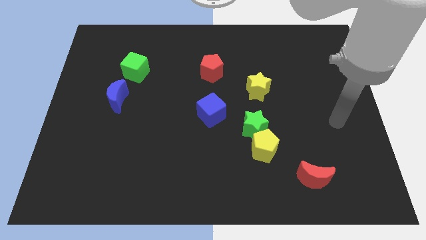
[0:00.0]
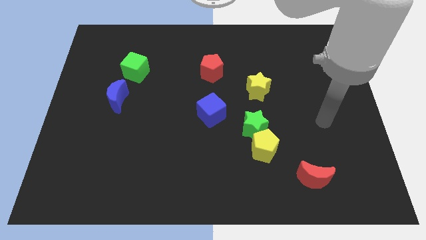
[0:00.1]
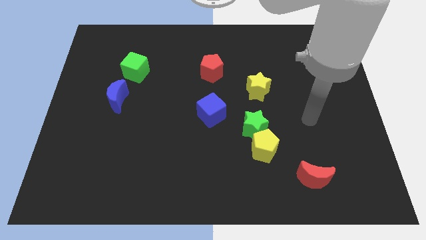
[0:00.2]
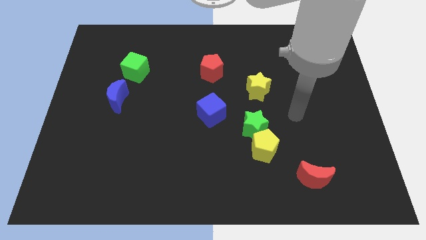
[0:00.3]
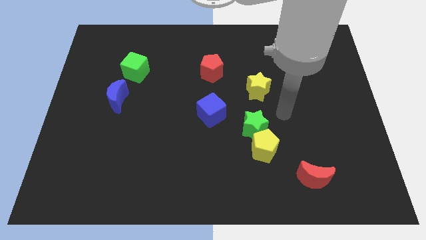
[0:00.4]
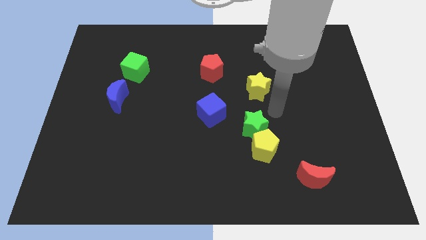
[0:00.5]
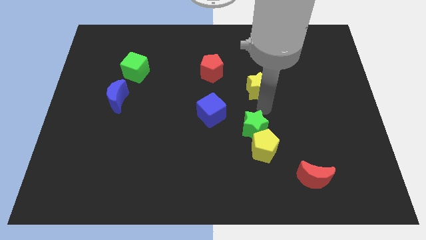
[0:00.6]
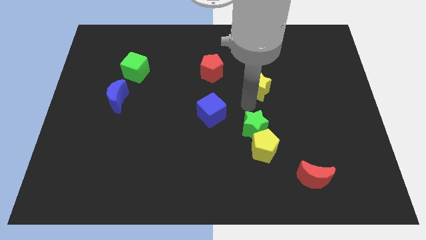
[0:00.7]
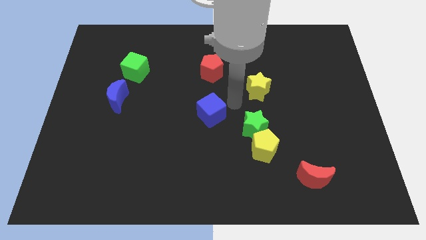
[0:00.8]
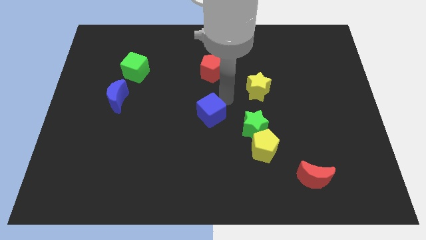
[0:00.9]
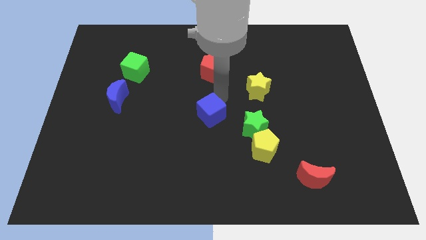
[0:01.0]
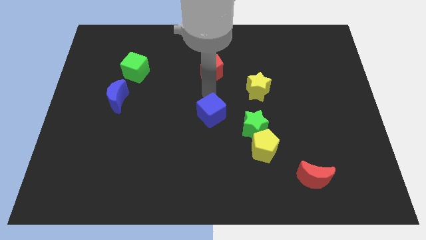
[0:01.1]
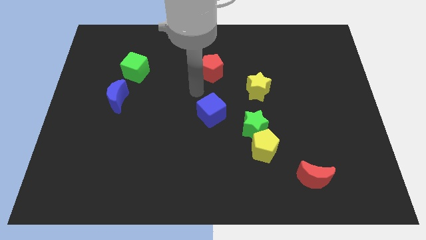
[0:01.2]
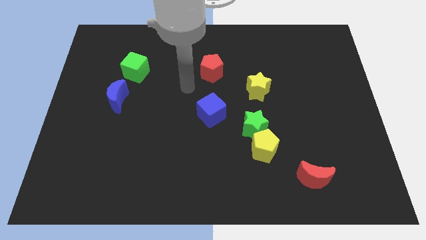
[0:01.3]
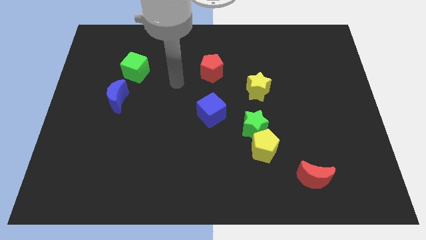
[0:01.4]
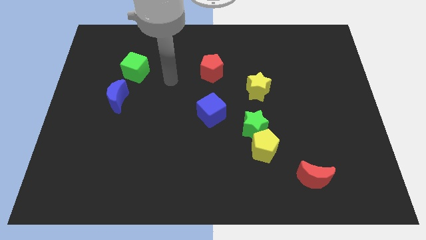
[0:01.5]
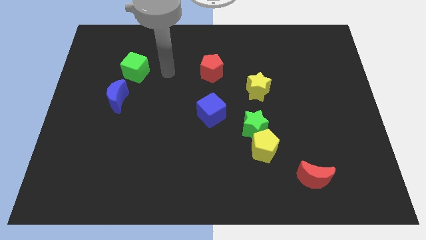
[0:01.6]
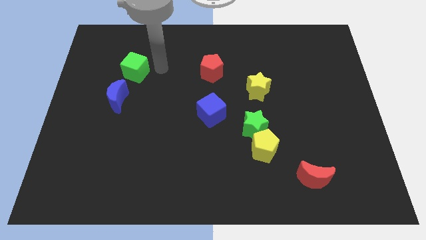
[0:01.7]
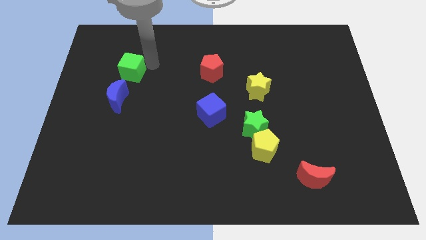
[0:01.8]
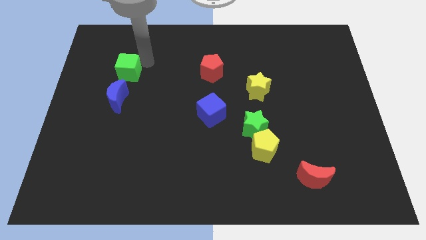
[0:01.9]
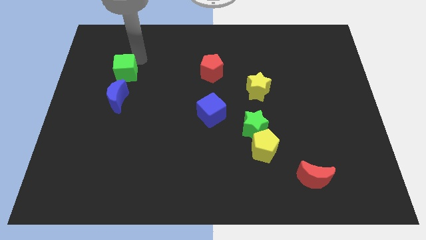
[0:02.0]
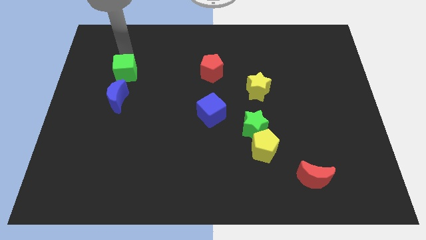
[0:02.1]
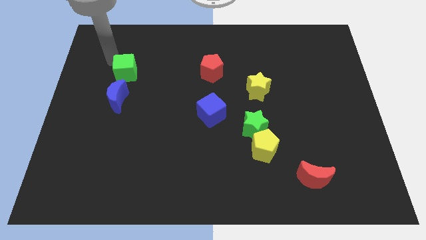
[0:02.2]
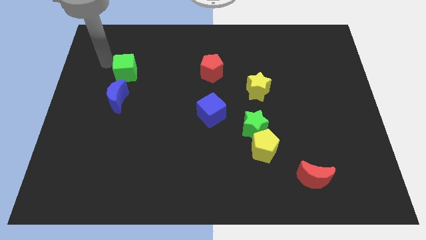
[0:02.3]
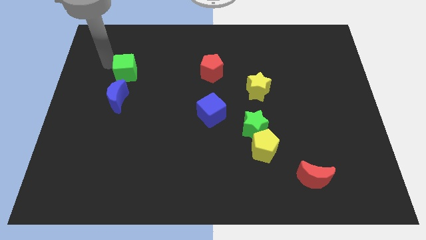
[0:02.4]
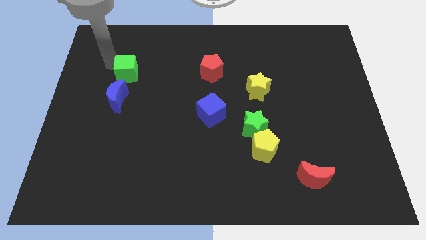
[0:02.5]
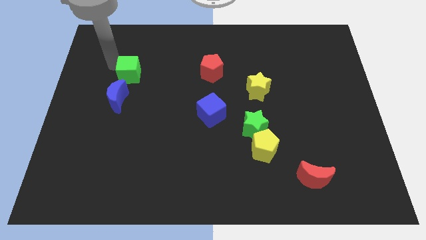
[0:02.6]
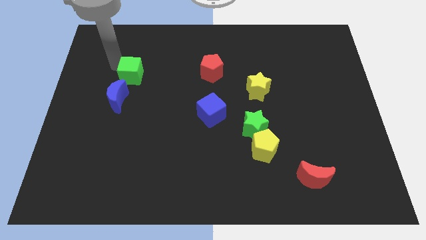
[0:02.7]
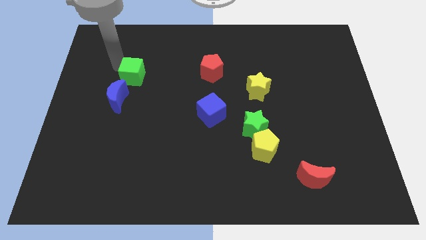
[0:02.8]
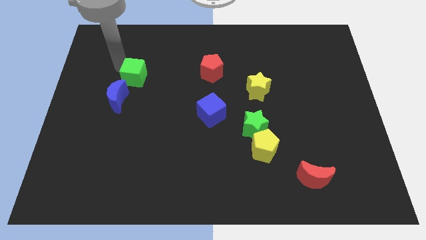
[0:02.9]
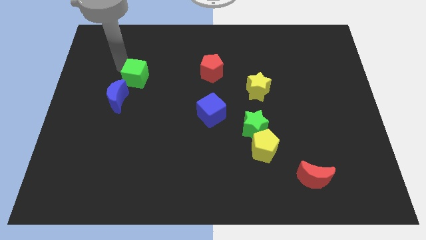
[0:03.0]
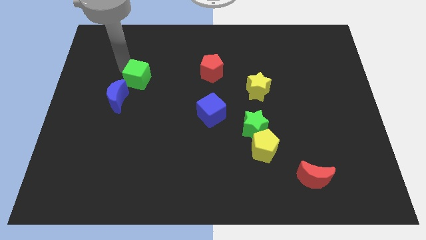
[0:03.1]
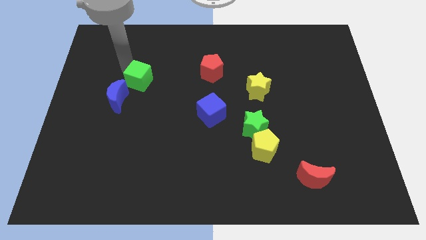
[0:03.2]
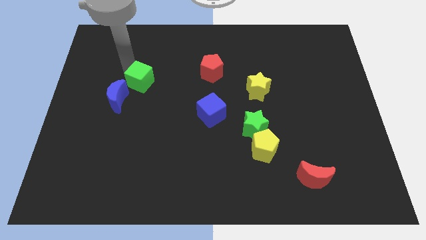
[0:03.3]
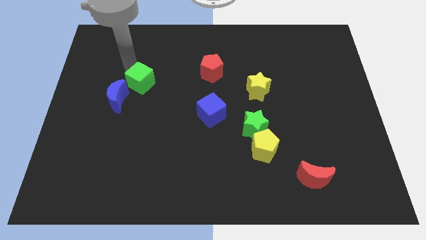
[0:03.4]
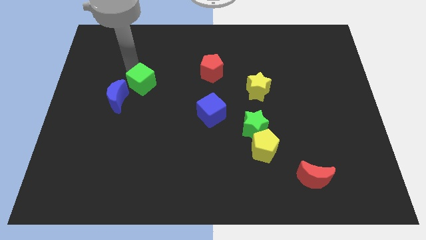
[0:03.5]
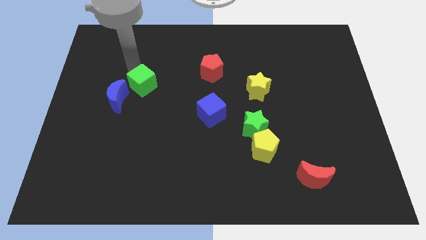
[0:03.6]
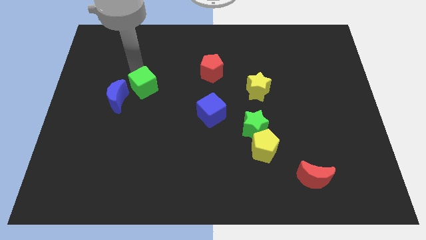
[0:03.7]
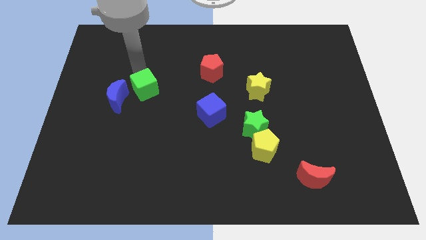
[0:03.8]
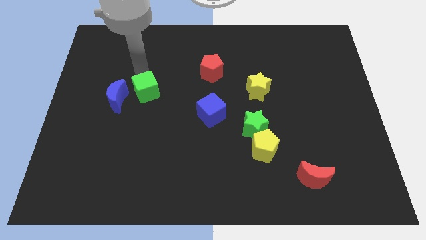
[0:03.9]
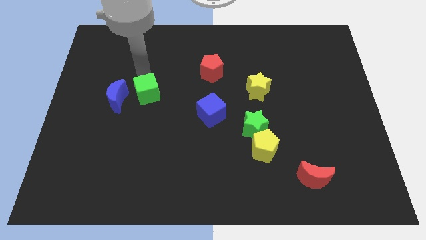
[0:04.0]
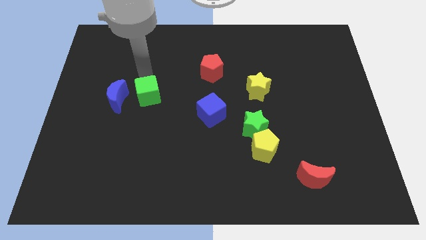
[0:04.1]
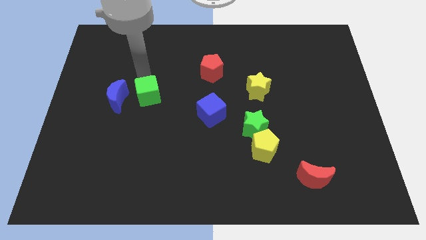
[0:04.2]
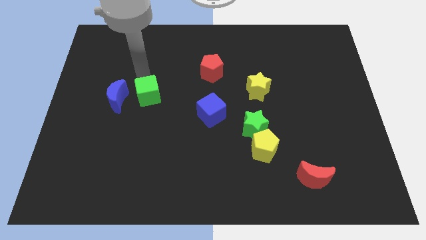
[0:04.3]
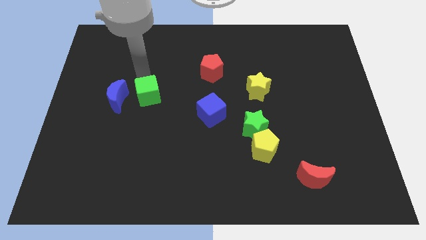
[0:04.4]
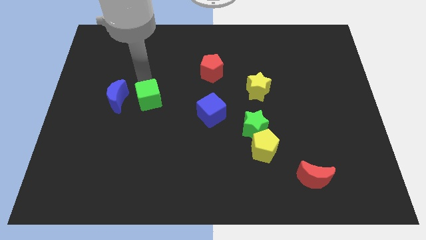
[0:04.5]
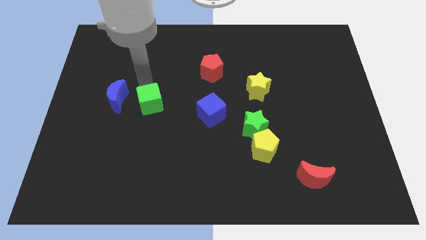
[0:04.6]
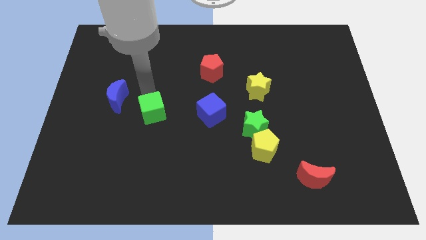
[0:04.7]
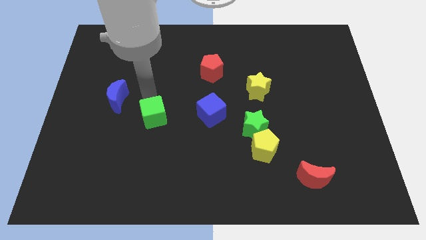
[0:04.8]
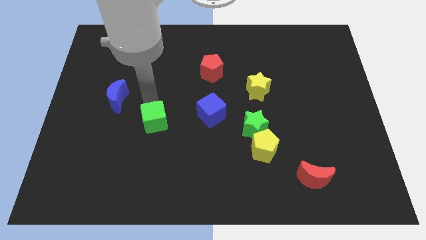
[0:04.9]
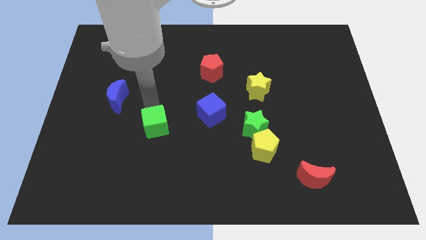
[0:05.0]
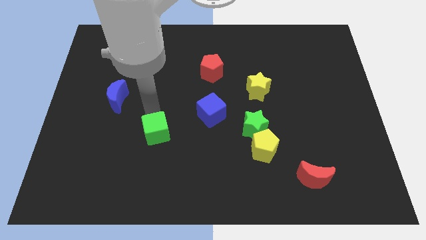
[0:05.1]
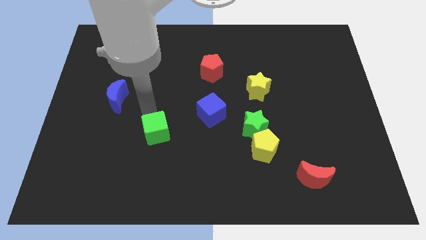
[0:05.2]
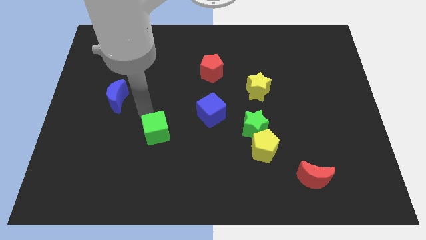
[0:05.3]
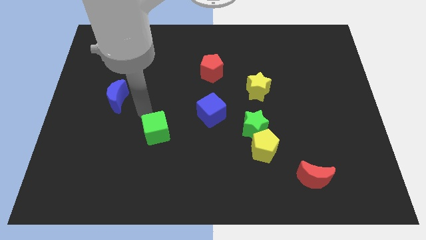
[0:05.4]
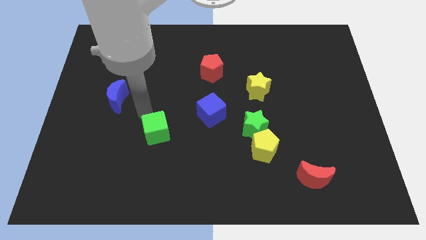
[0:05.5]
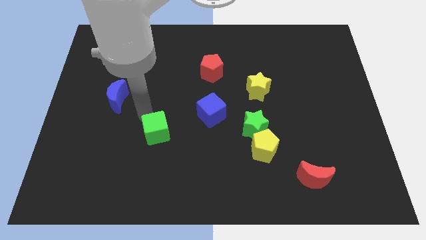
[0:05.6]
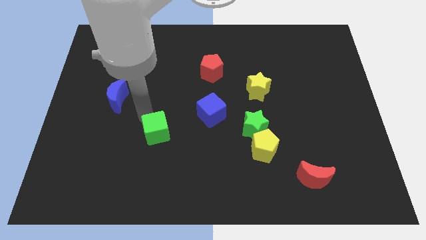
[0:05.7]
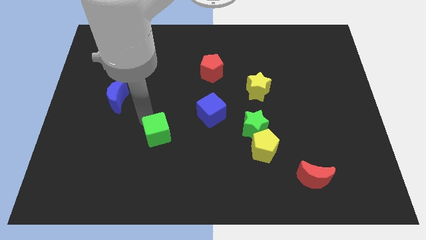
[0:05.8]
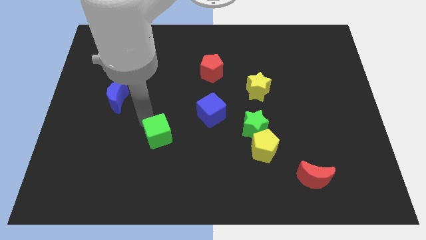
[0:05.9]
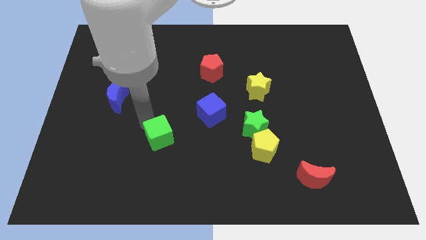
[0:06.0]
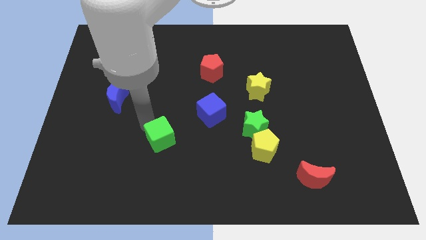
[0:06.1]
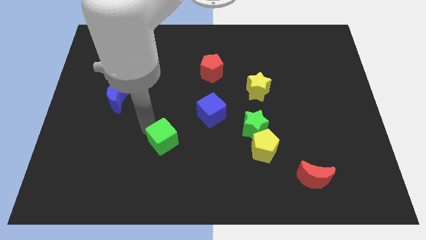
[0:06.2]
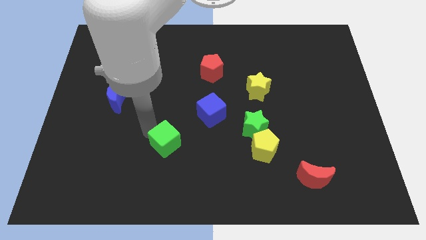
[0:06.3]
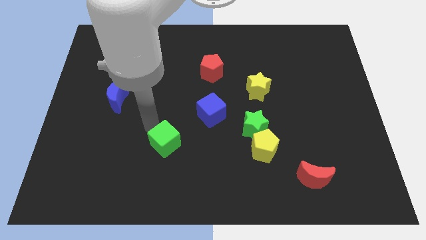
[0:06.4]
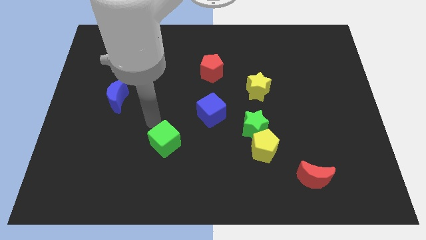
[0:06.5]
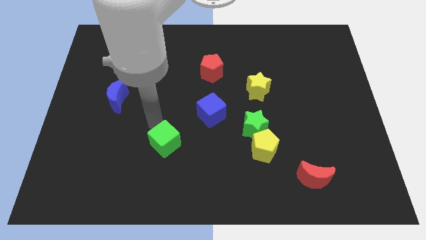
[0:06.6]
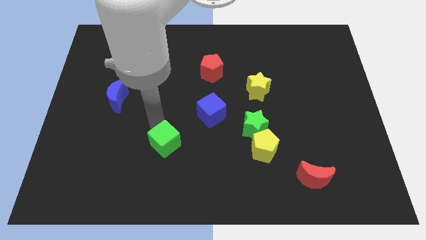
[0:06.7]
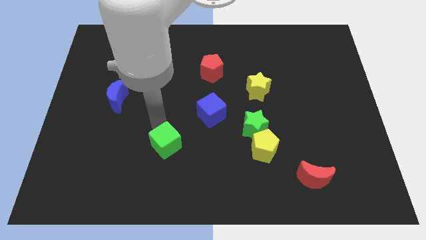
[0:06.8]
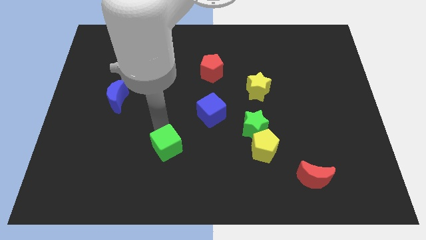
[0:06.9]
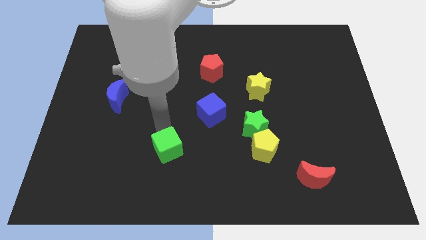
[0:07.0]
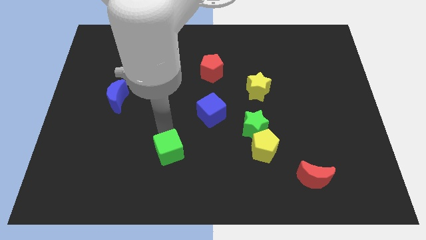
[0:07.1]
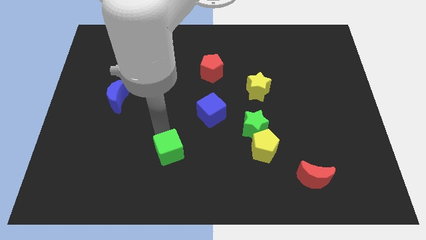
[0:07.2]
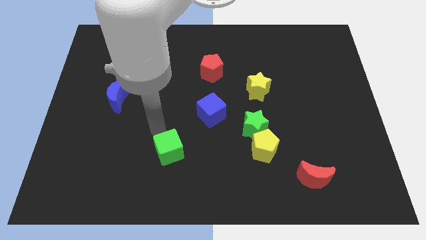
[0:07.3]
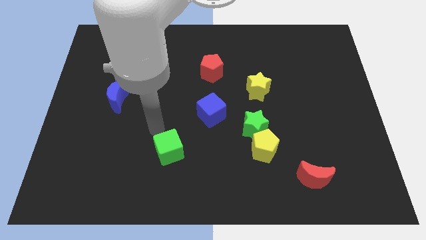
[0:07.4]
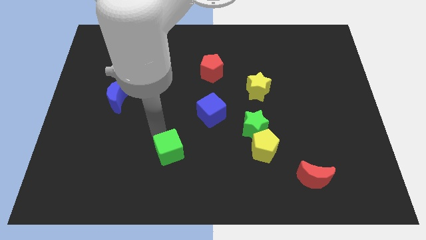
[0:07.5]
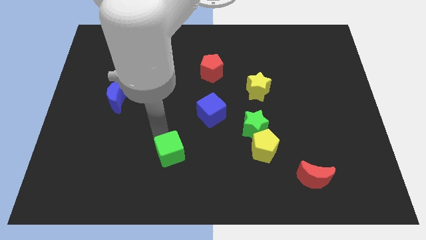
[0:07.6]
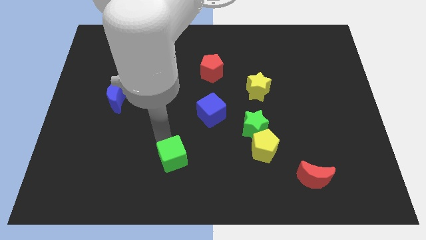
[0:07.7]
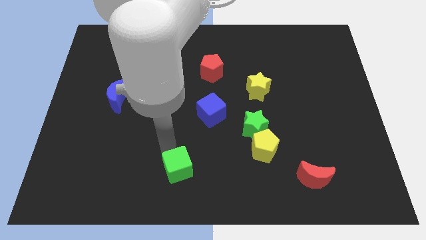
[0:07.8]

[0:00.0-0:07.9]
push the green cube to the bottom side
